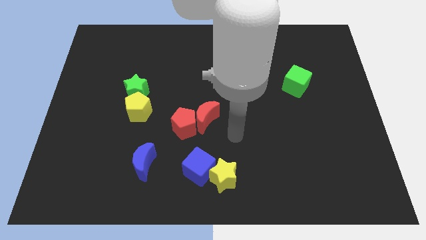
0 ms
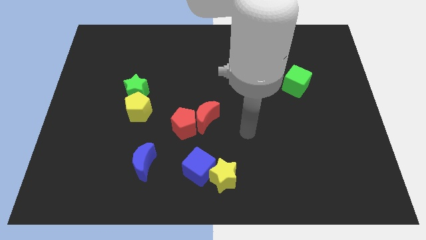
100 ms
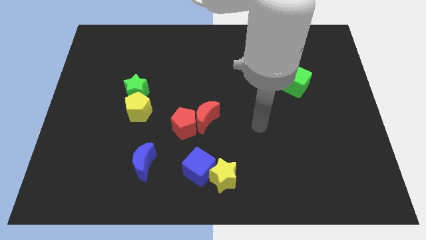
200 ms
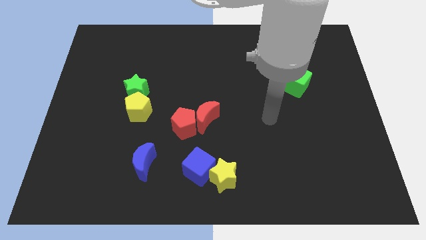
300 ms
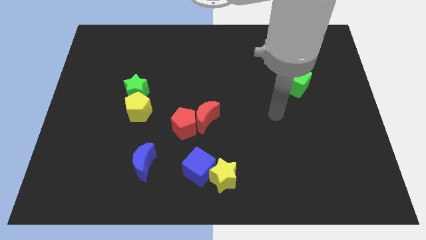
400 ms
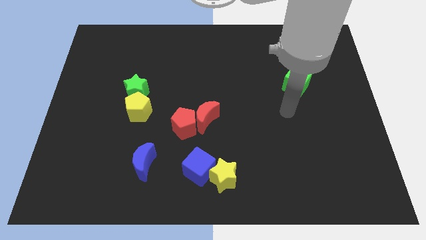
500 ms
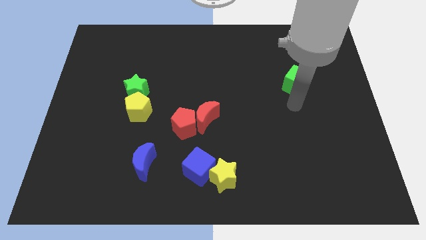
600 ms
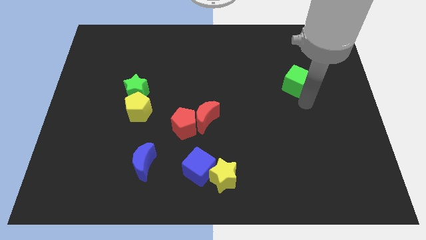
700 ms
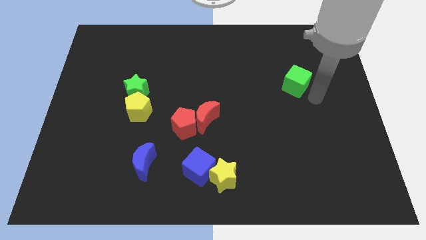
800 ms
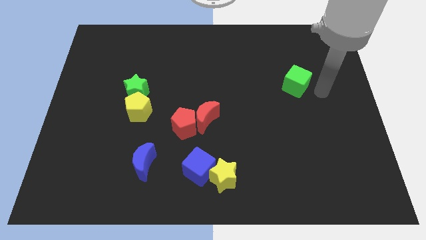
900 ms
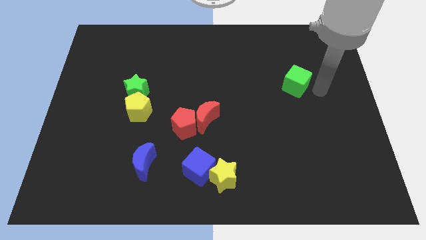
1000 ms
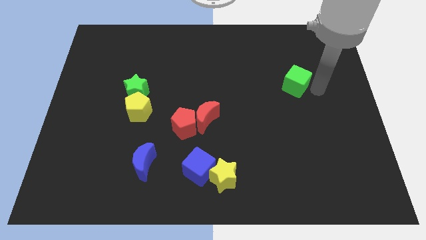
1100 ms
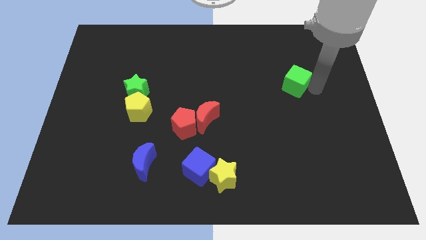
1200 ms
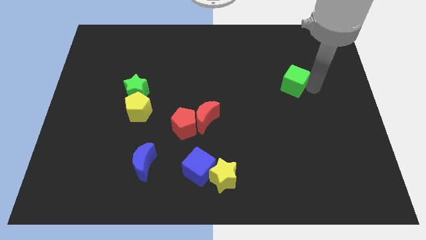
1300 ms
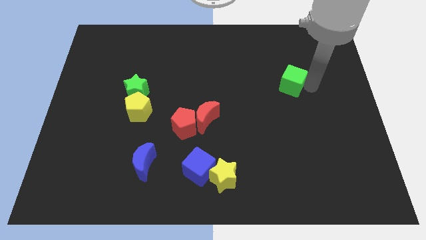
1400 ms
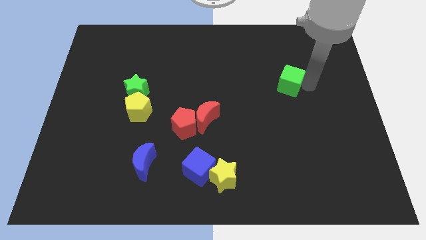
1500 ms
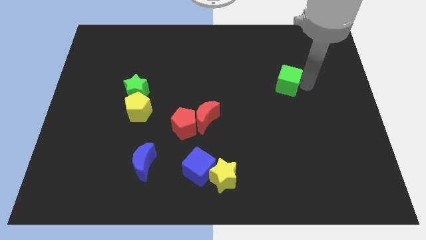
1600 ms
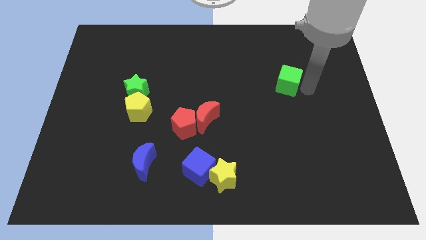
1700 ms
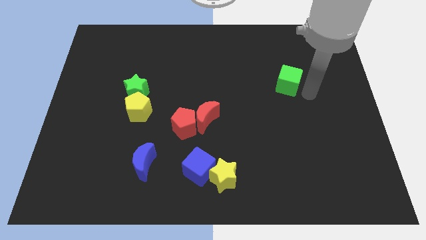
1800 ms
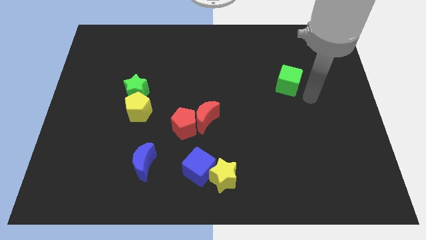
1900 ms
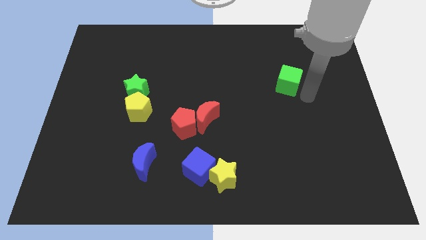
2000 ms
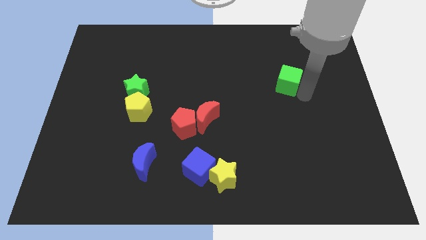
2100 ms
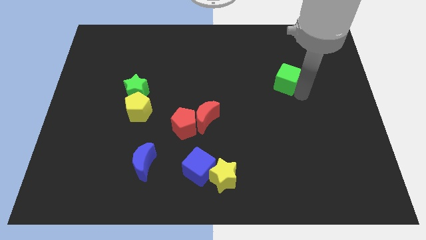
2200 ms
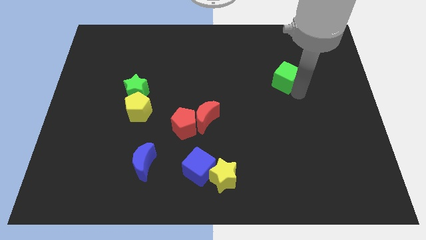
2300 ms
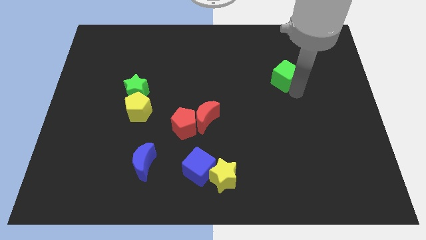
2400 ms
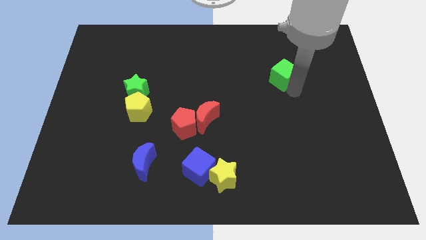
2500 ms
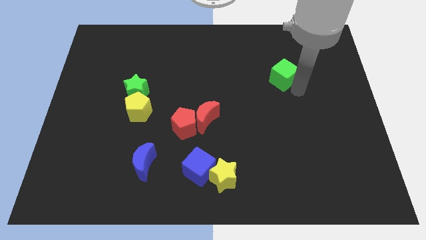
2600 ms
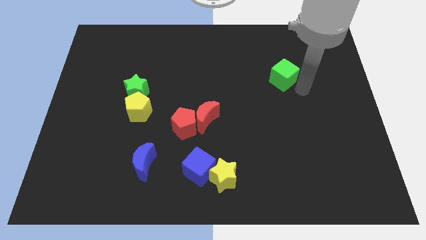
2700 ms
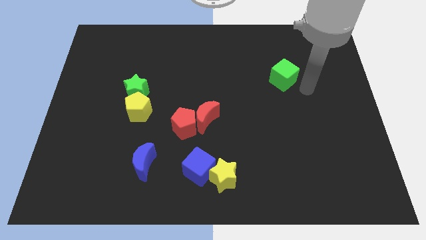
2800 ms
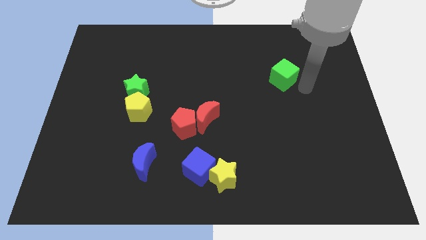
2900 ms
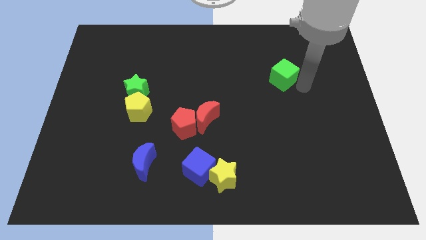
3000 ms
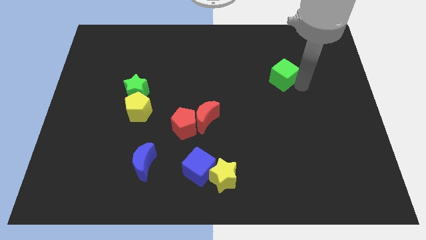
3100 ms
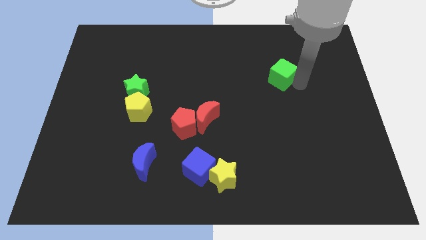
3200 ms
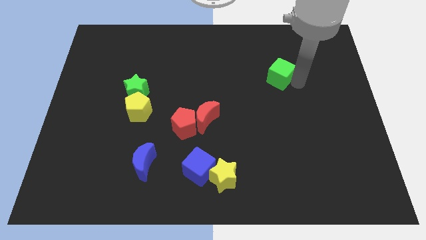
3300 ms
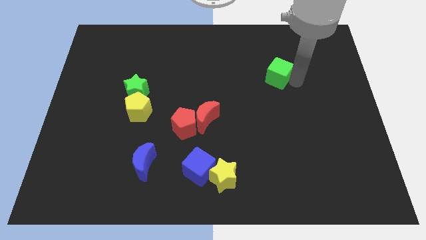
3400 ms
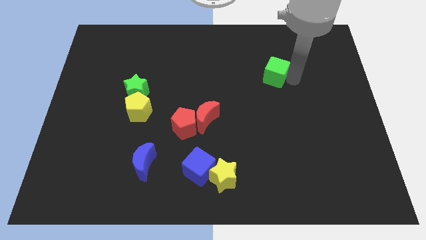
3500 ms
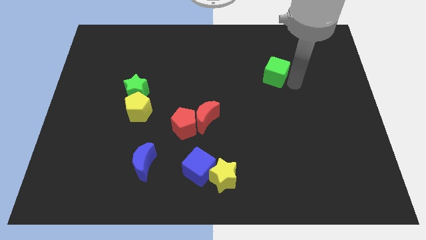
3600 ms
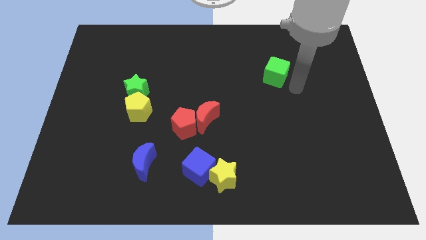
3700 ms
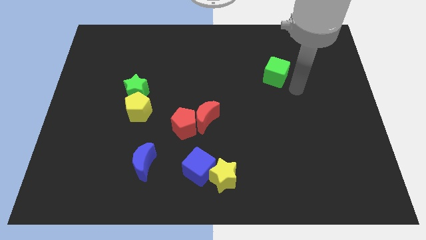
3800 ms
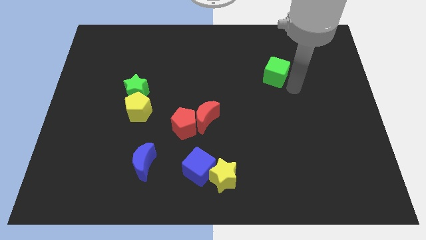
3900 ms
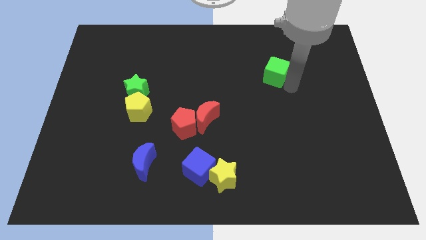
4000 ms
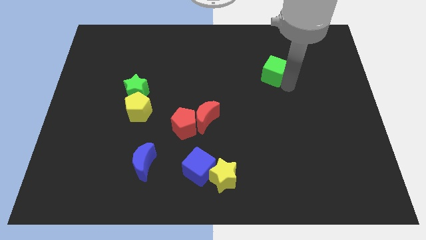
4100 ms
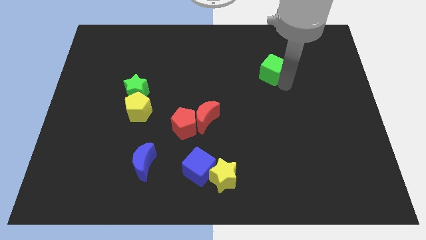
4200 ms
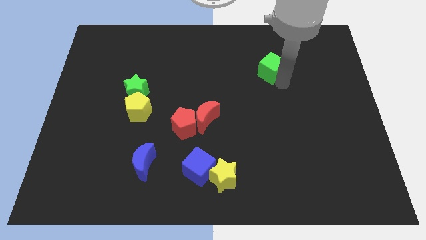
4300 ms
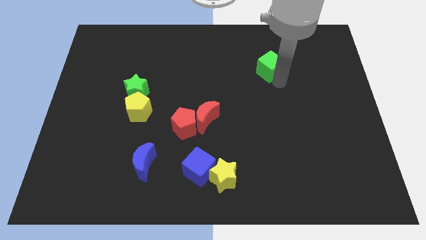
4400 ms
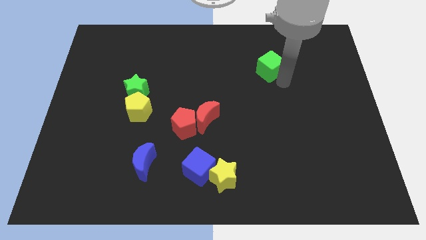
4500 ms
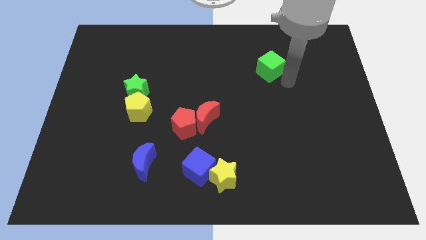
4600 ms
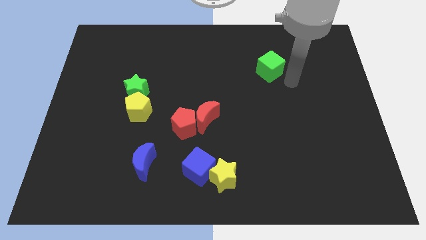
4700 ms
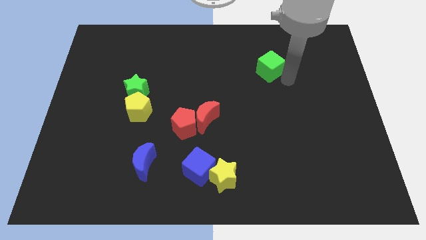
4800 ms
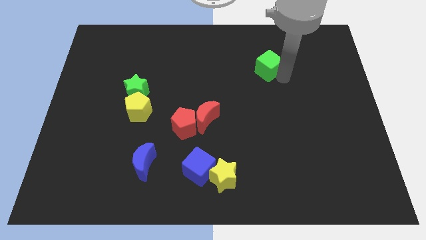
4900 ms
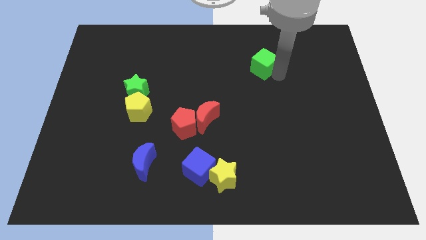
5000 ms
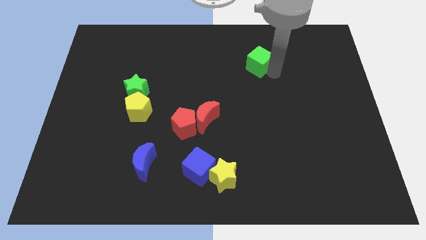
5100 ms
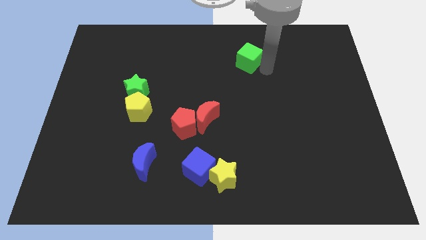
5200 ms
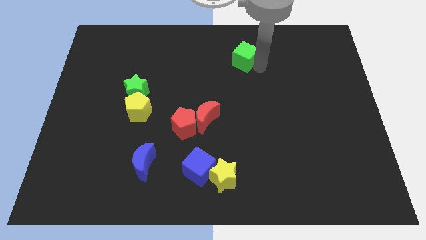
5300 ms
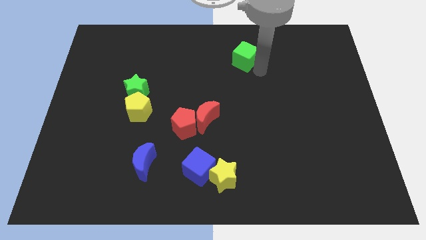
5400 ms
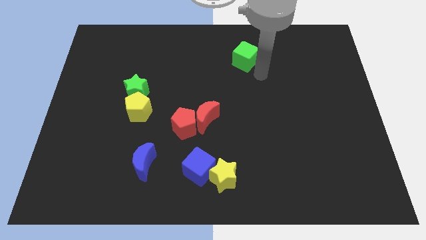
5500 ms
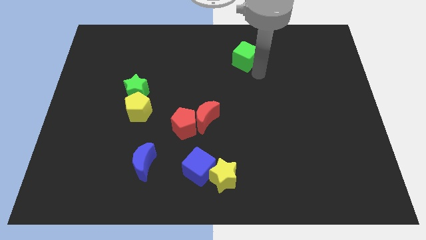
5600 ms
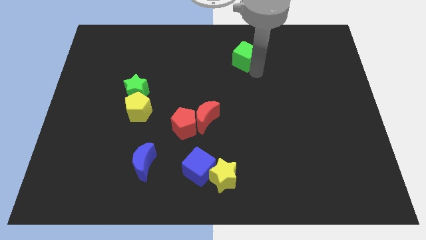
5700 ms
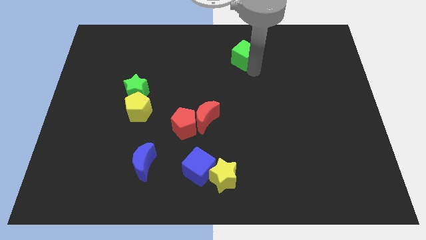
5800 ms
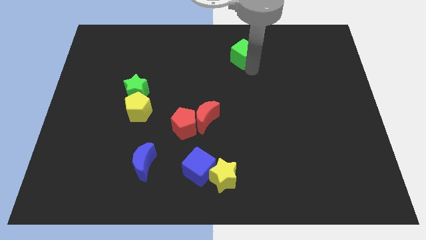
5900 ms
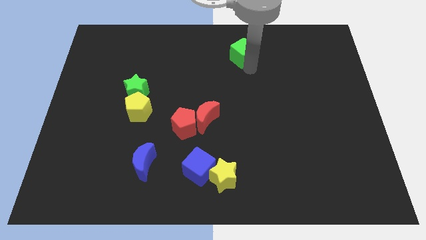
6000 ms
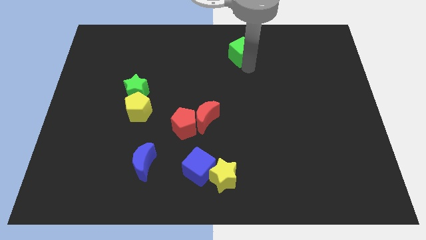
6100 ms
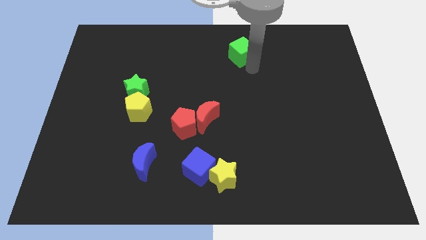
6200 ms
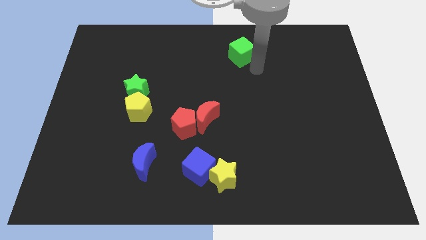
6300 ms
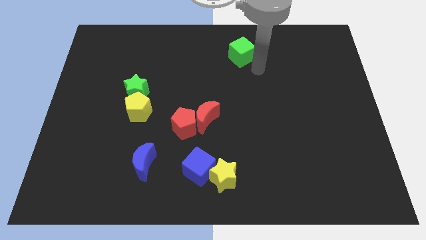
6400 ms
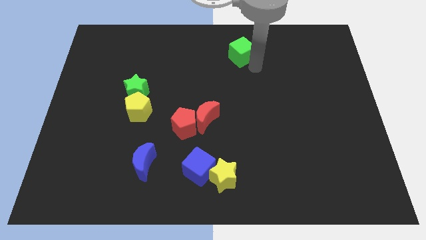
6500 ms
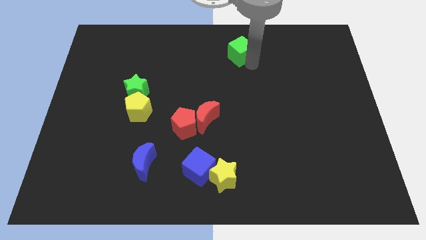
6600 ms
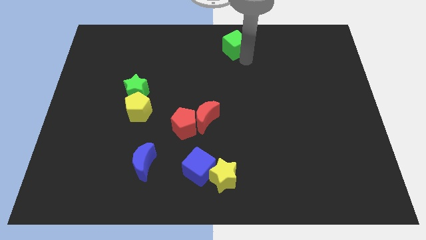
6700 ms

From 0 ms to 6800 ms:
slide the green cube to the towards your base
